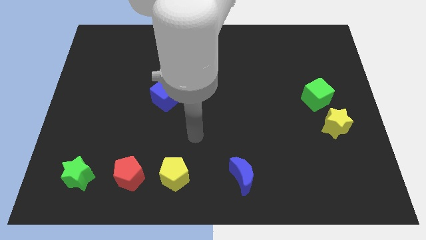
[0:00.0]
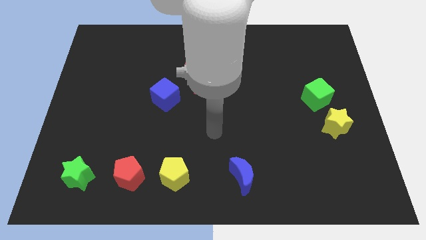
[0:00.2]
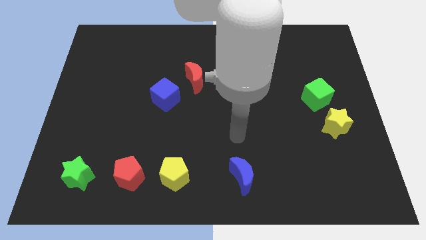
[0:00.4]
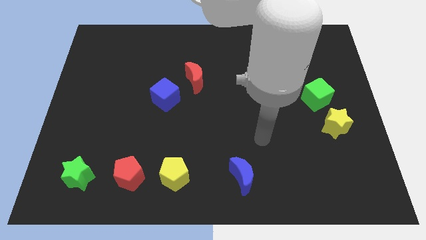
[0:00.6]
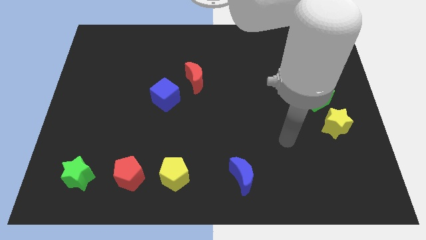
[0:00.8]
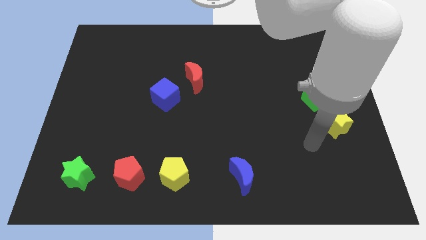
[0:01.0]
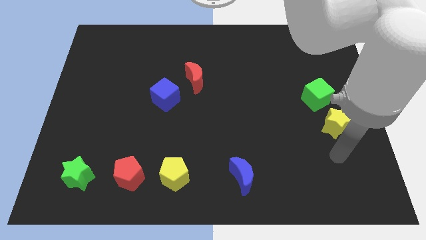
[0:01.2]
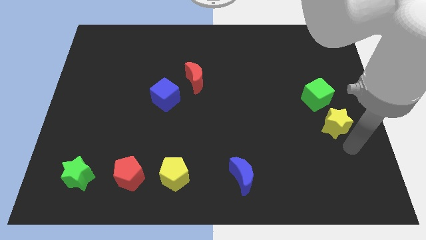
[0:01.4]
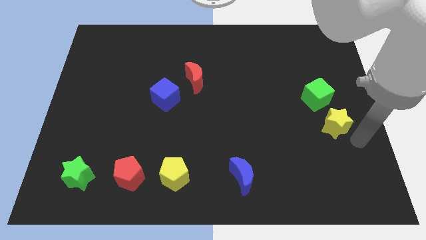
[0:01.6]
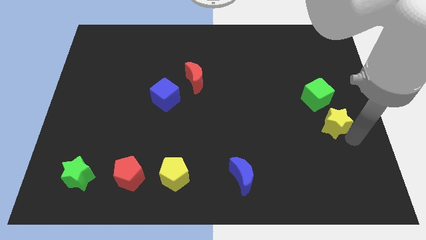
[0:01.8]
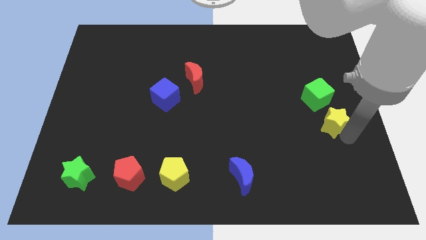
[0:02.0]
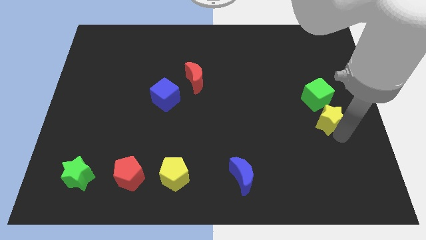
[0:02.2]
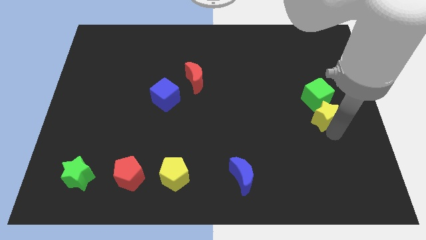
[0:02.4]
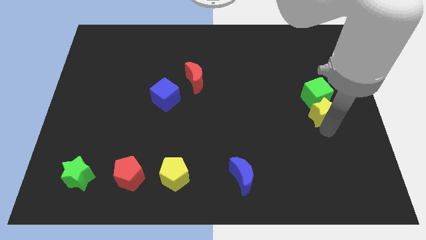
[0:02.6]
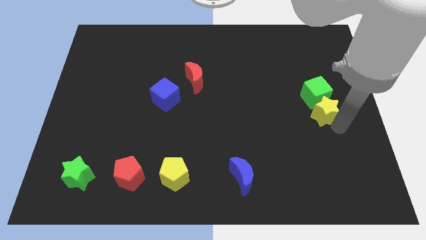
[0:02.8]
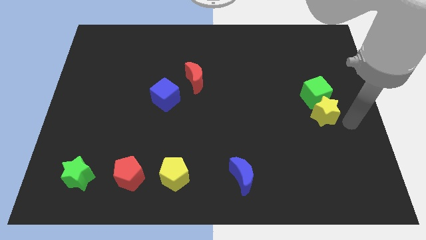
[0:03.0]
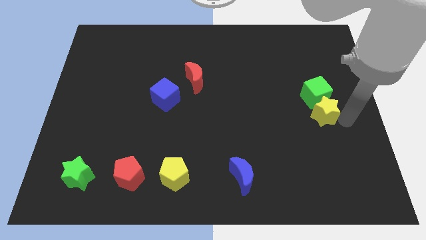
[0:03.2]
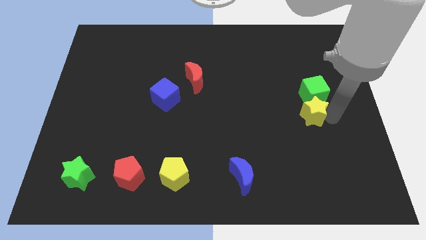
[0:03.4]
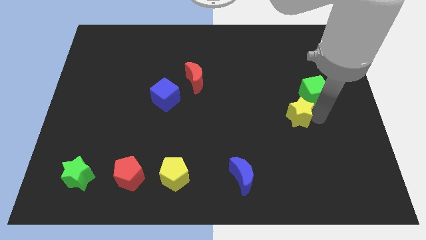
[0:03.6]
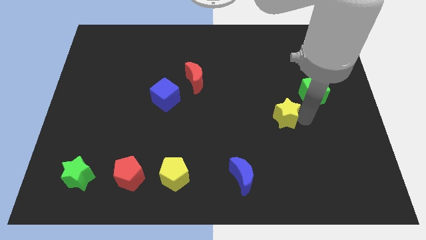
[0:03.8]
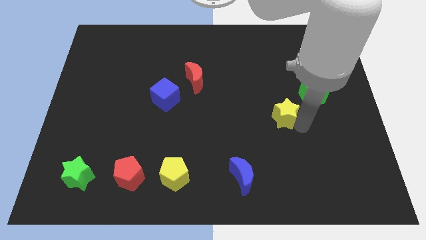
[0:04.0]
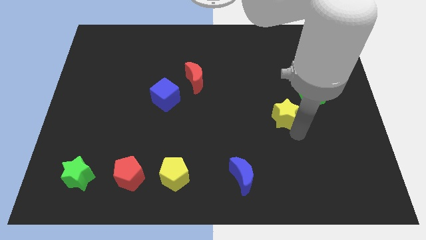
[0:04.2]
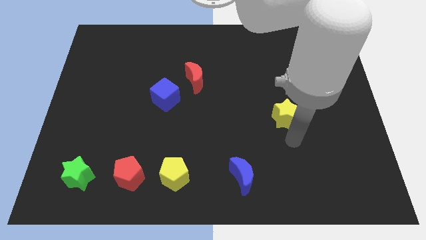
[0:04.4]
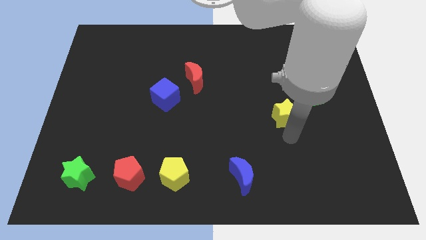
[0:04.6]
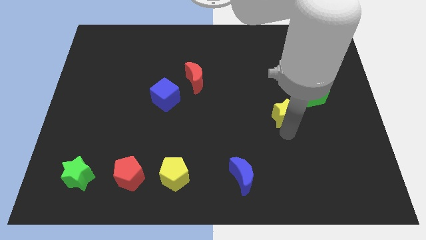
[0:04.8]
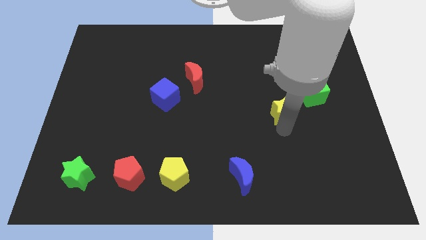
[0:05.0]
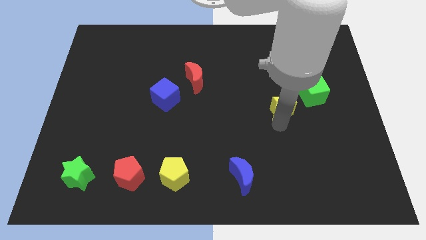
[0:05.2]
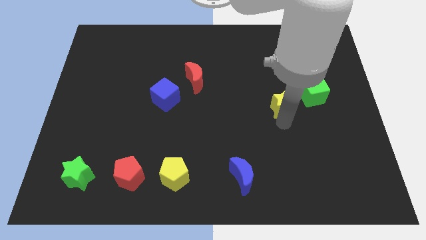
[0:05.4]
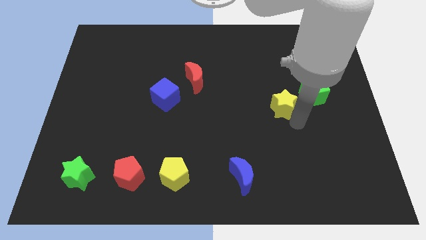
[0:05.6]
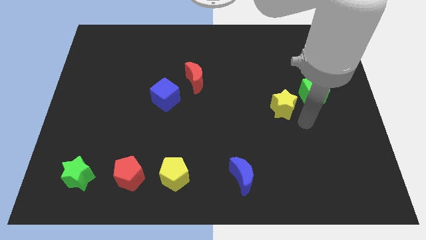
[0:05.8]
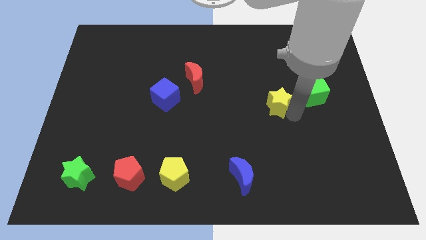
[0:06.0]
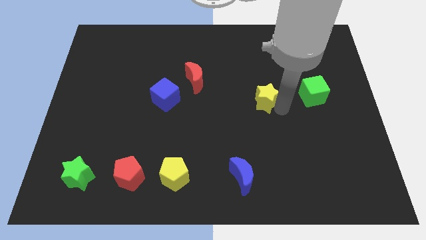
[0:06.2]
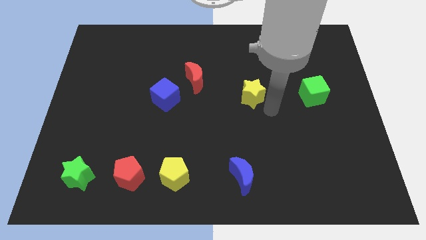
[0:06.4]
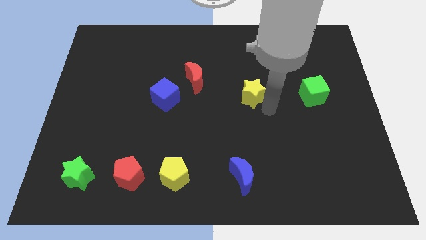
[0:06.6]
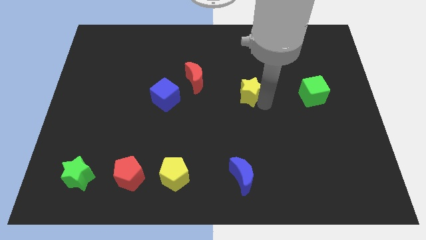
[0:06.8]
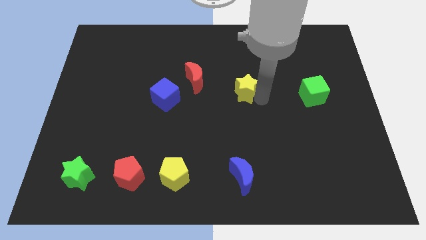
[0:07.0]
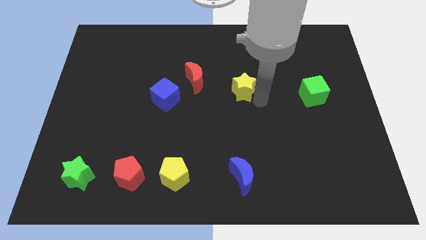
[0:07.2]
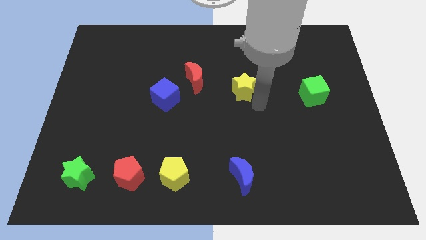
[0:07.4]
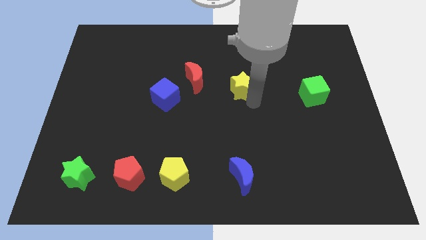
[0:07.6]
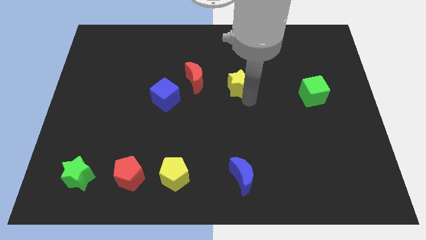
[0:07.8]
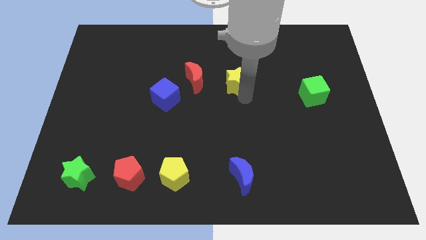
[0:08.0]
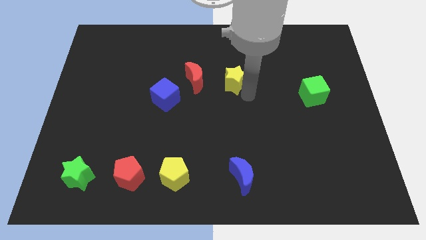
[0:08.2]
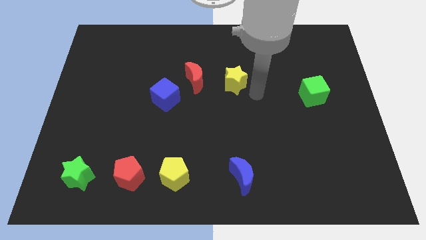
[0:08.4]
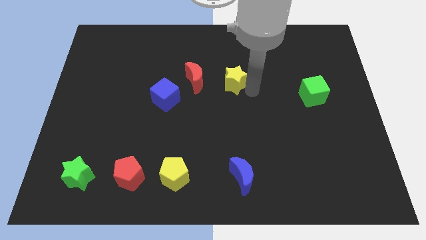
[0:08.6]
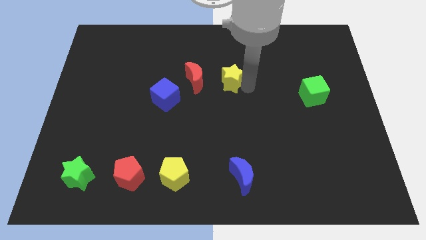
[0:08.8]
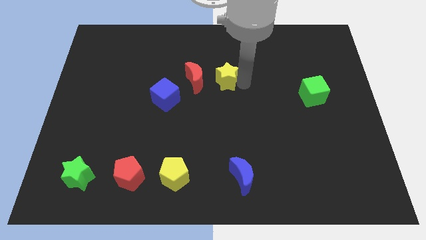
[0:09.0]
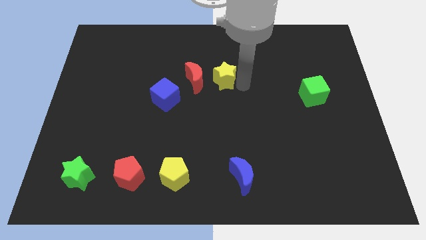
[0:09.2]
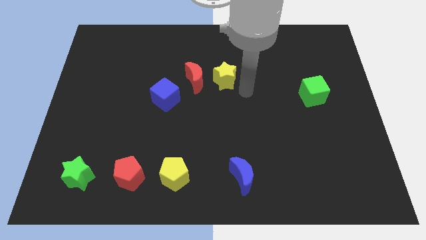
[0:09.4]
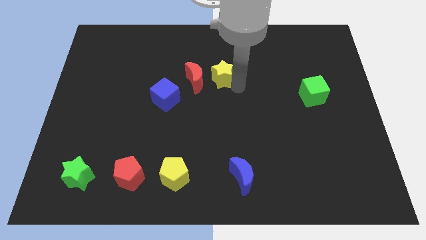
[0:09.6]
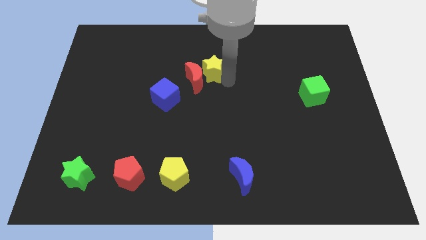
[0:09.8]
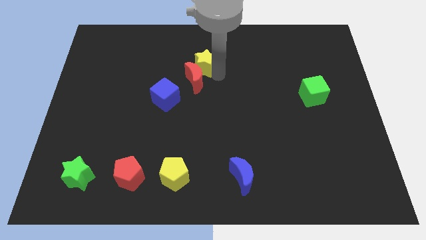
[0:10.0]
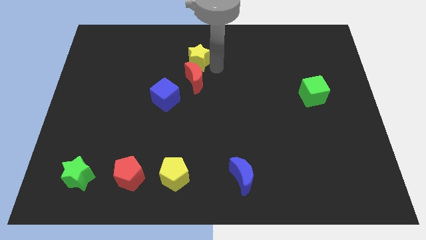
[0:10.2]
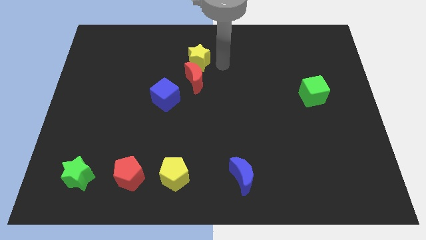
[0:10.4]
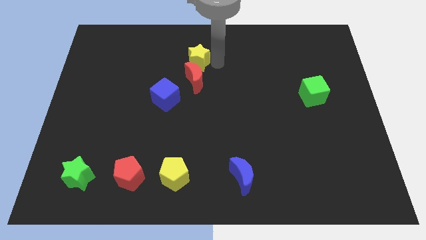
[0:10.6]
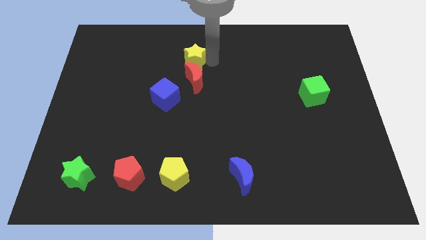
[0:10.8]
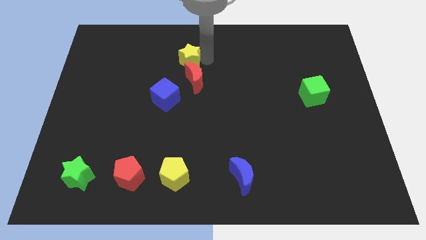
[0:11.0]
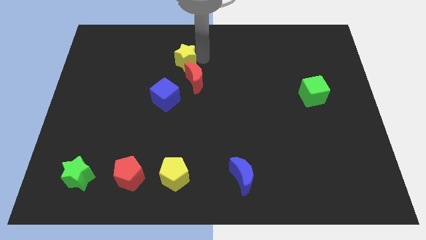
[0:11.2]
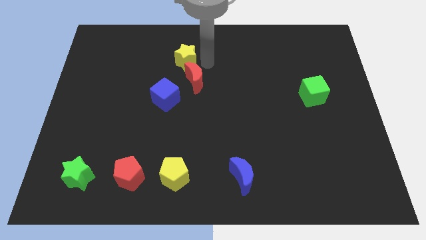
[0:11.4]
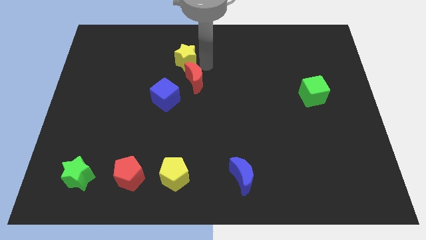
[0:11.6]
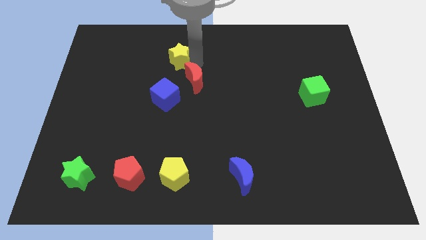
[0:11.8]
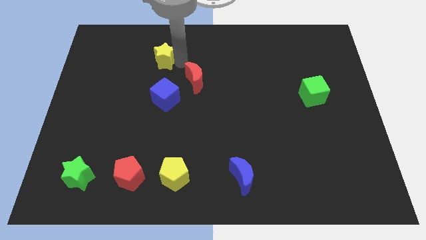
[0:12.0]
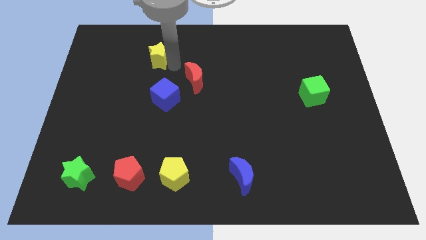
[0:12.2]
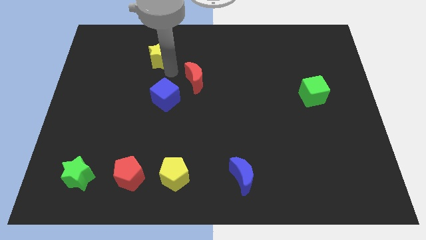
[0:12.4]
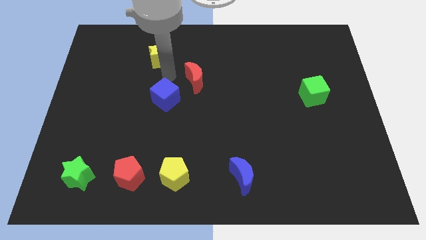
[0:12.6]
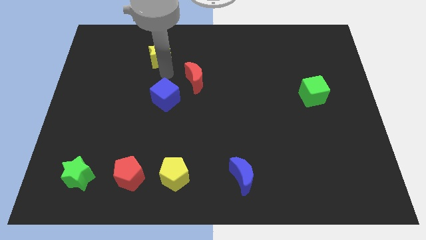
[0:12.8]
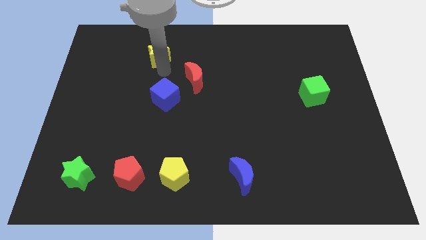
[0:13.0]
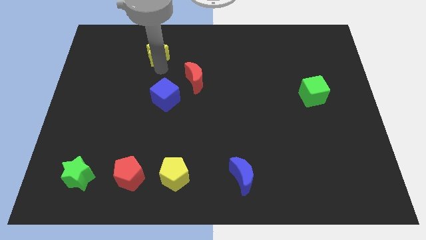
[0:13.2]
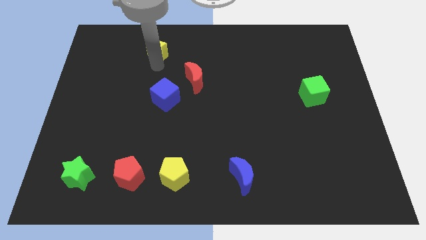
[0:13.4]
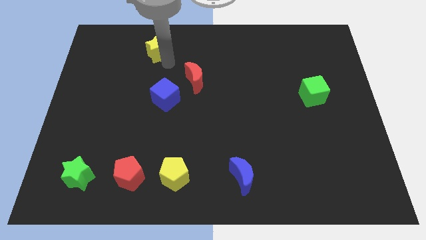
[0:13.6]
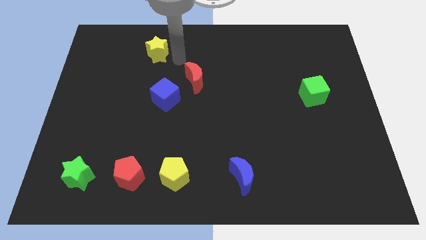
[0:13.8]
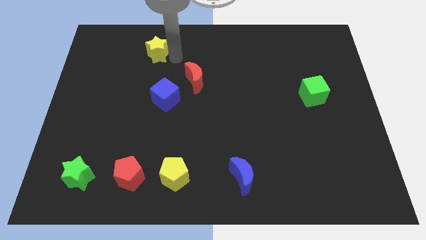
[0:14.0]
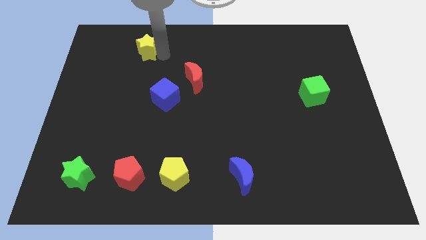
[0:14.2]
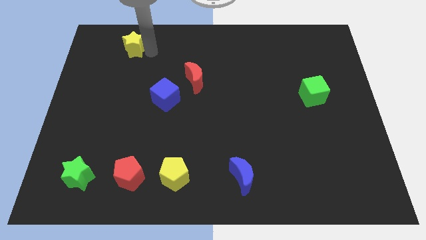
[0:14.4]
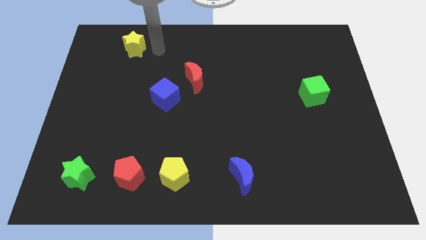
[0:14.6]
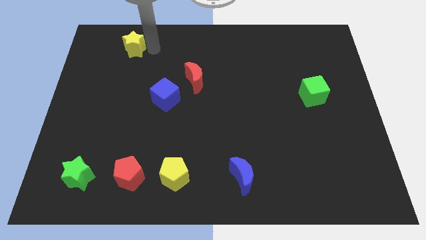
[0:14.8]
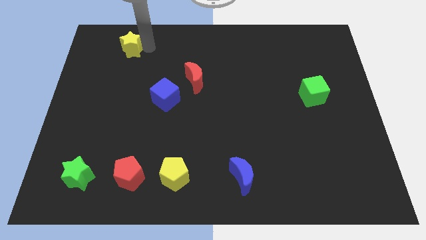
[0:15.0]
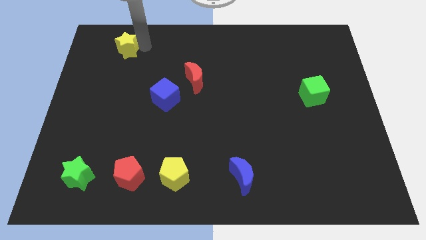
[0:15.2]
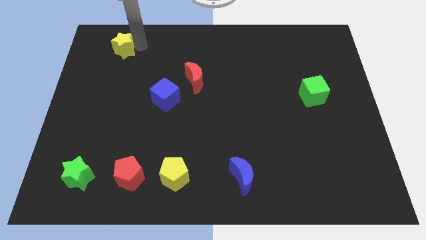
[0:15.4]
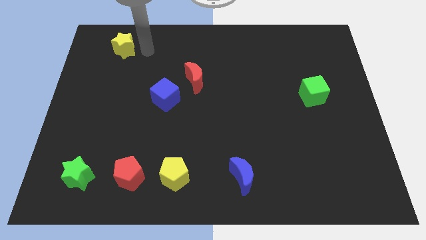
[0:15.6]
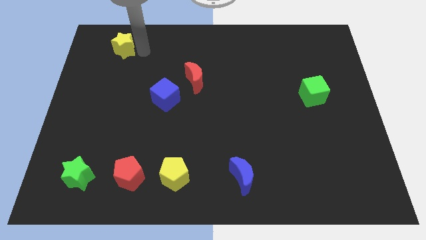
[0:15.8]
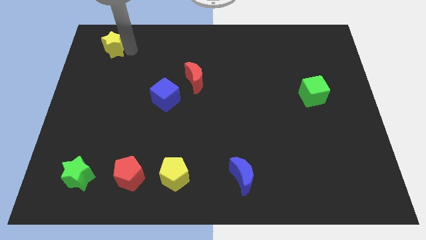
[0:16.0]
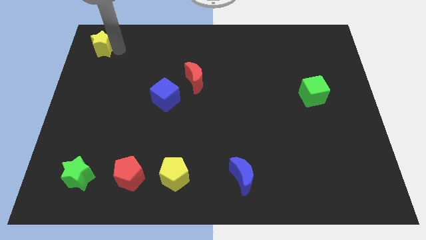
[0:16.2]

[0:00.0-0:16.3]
slide the yellow star to the upper left corner
